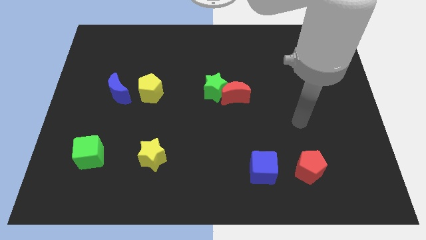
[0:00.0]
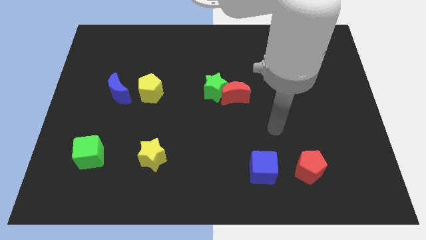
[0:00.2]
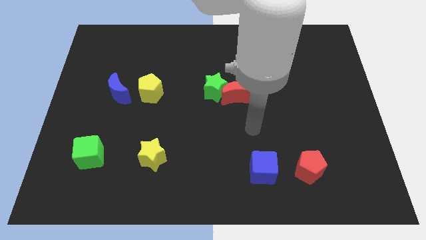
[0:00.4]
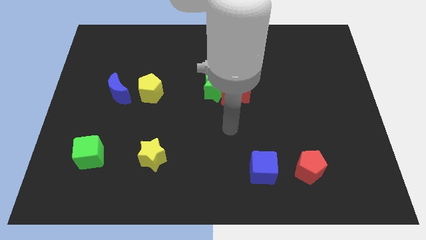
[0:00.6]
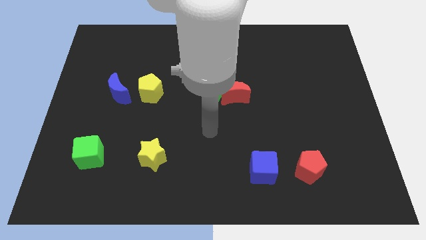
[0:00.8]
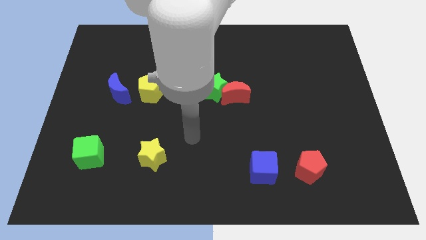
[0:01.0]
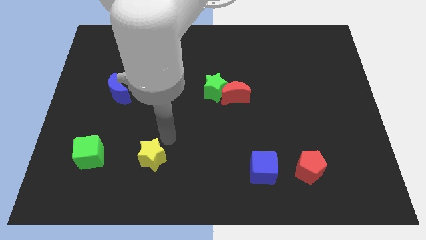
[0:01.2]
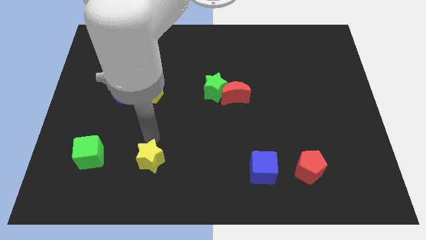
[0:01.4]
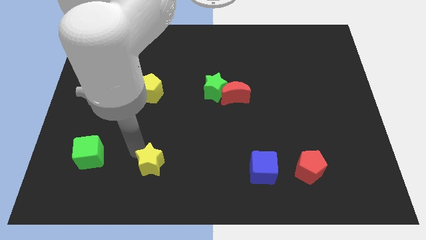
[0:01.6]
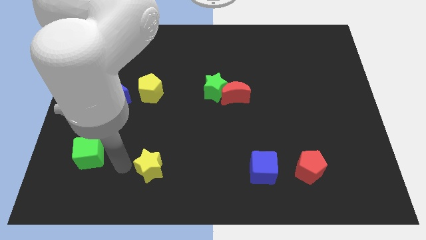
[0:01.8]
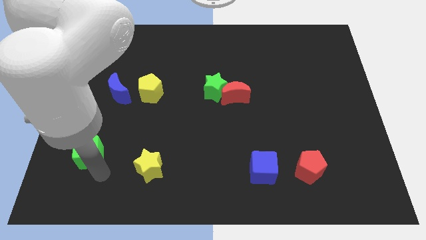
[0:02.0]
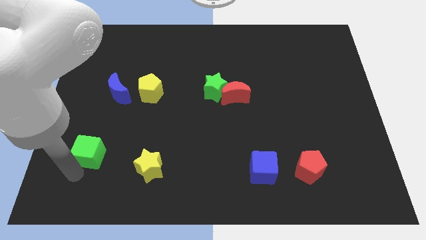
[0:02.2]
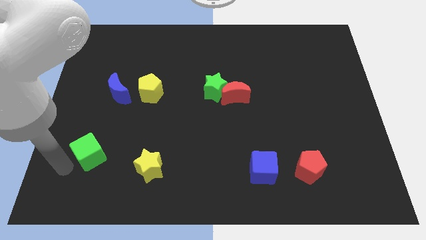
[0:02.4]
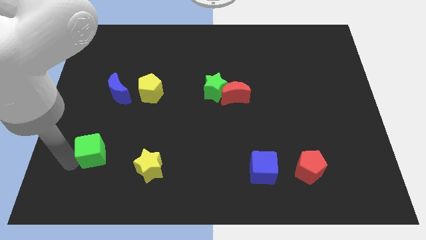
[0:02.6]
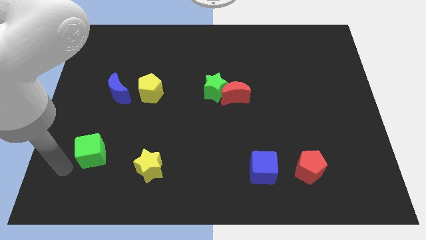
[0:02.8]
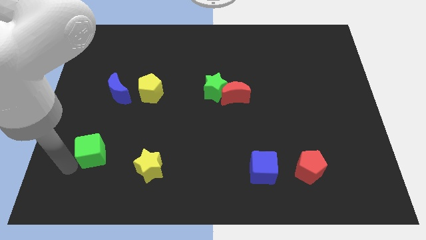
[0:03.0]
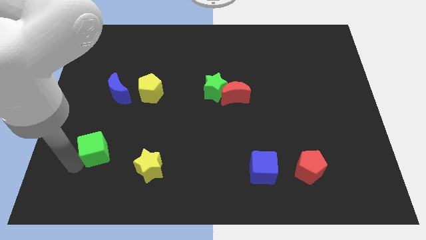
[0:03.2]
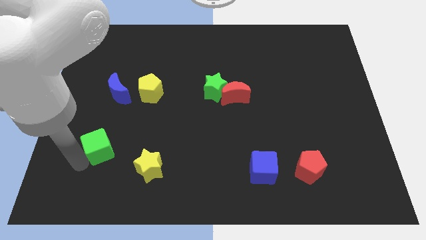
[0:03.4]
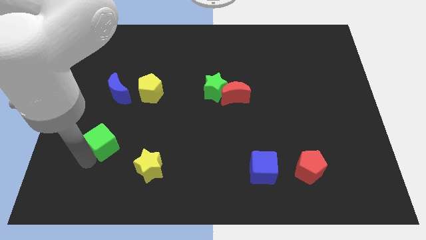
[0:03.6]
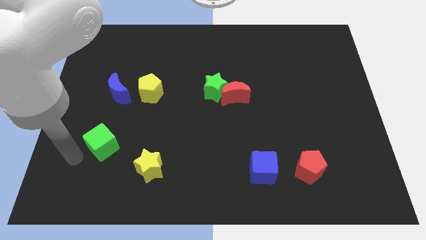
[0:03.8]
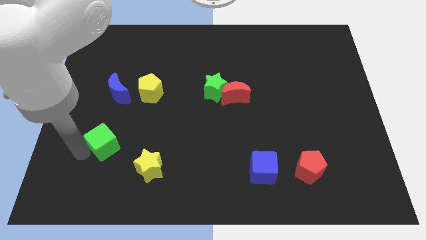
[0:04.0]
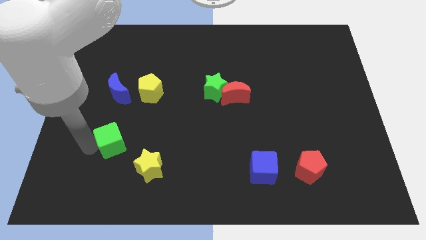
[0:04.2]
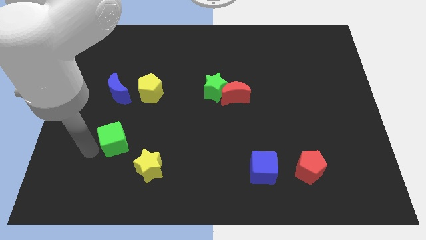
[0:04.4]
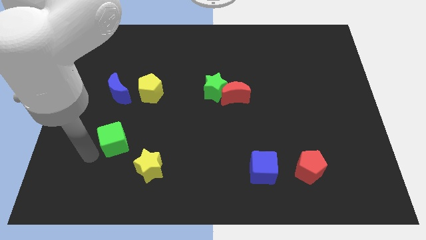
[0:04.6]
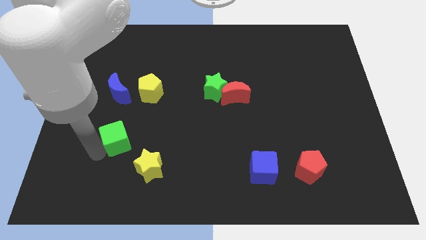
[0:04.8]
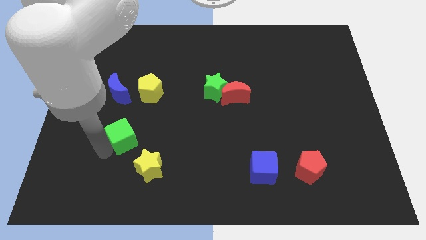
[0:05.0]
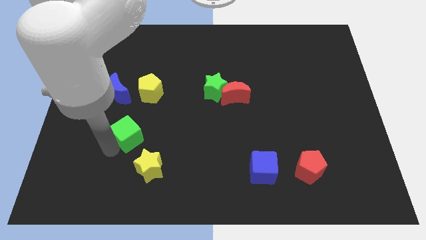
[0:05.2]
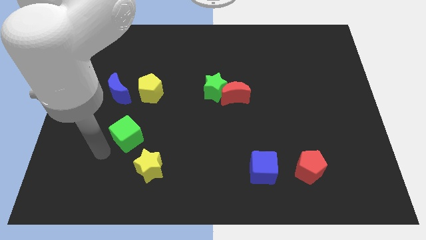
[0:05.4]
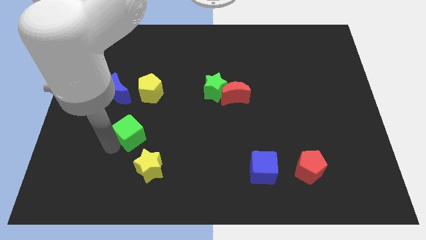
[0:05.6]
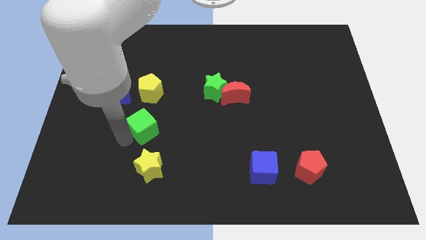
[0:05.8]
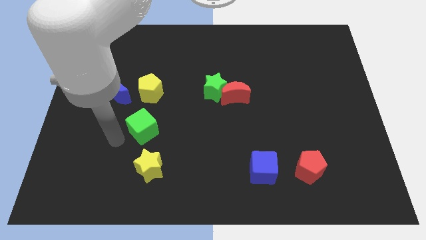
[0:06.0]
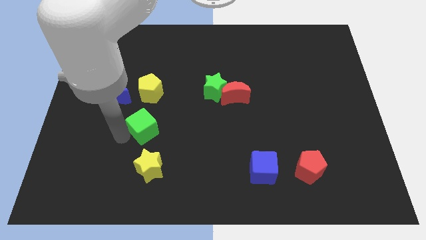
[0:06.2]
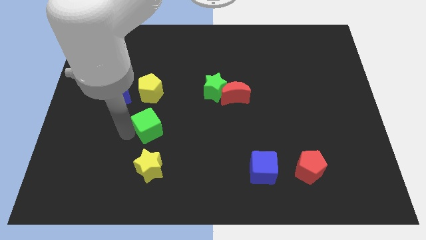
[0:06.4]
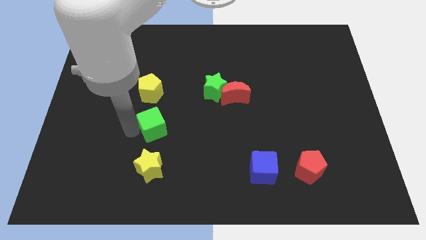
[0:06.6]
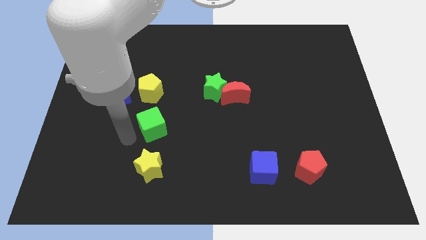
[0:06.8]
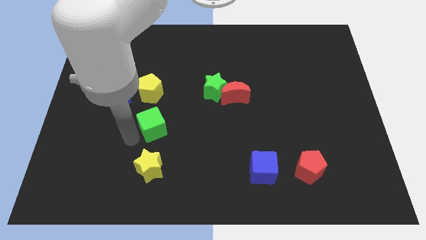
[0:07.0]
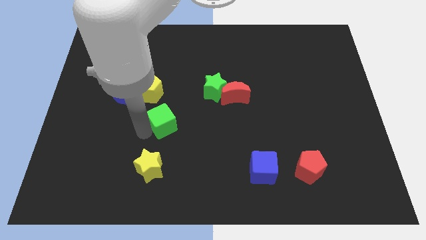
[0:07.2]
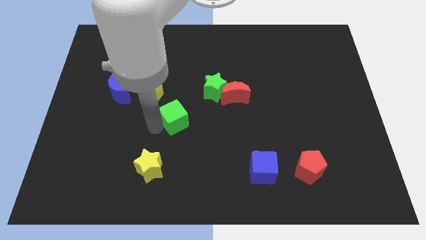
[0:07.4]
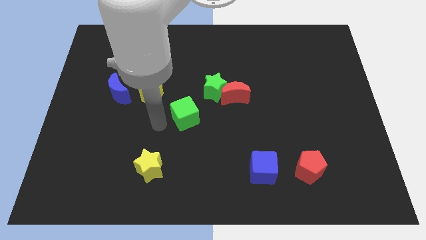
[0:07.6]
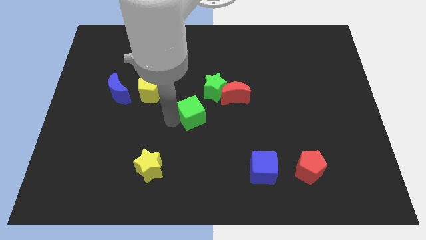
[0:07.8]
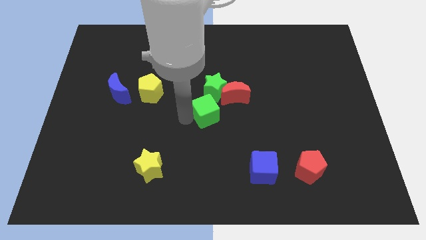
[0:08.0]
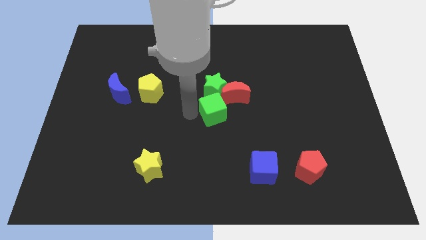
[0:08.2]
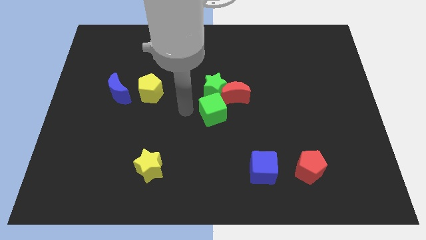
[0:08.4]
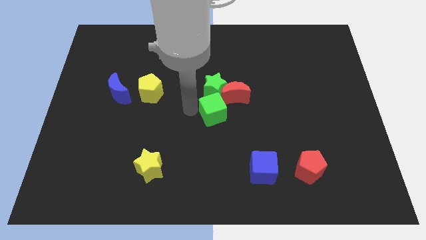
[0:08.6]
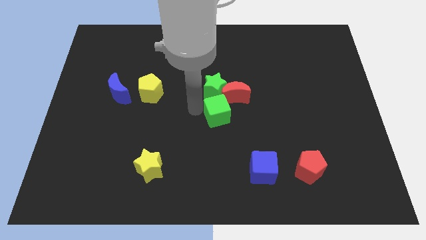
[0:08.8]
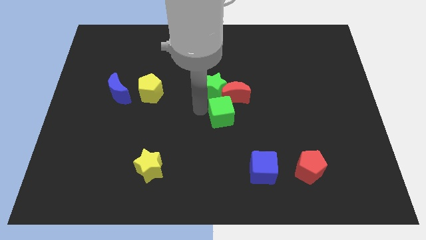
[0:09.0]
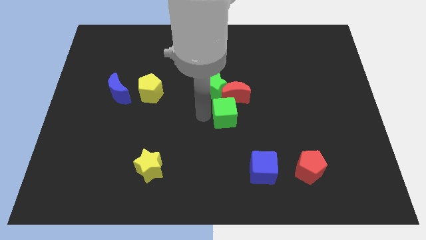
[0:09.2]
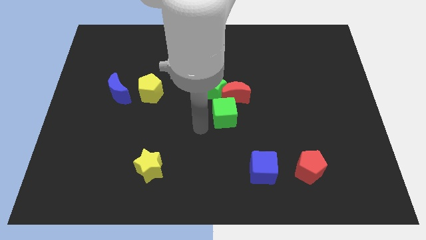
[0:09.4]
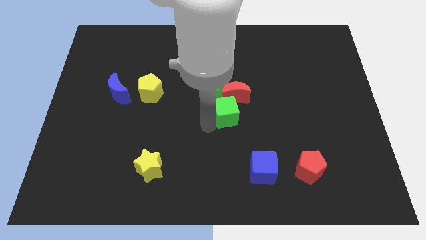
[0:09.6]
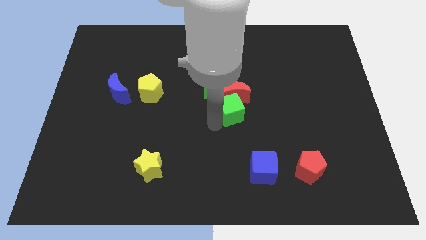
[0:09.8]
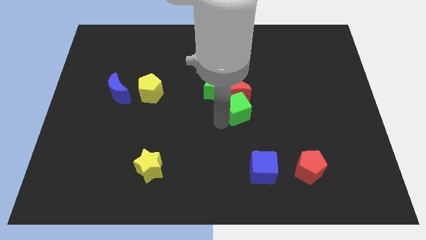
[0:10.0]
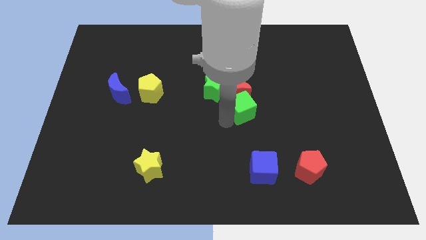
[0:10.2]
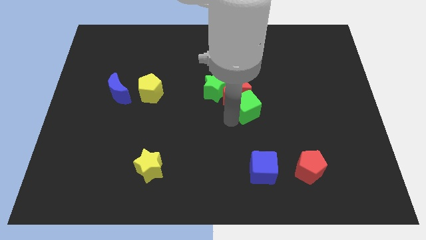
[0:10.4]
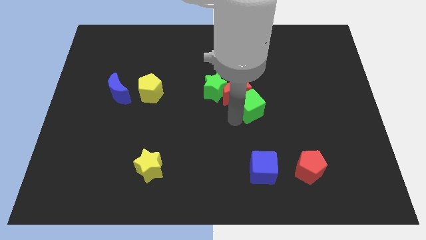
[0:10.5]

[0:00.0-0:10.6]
move the green cube just right of the red moon

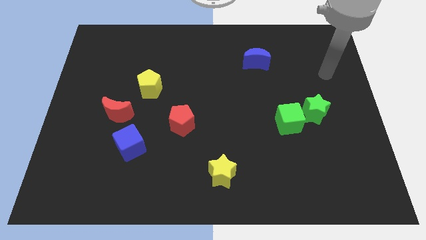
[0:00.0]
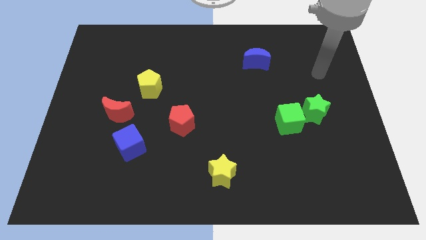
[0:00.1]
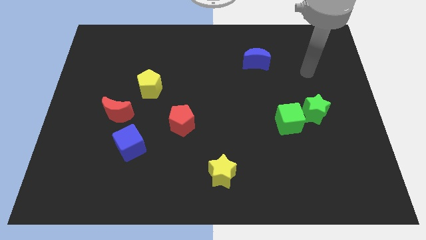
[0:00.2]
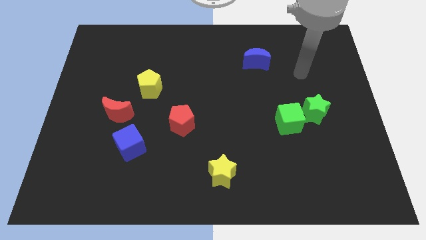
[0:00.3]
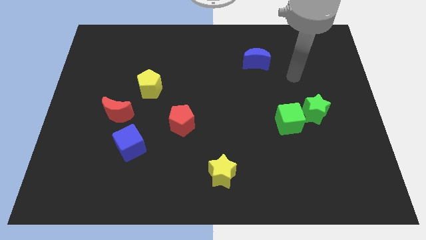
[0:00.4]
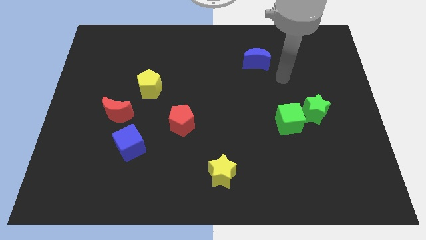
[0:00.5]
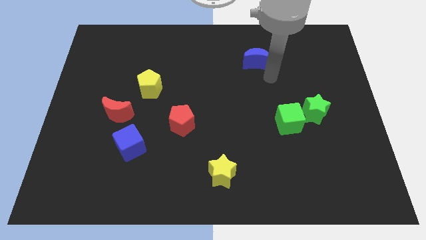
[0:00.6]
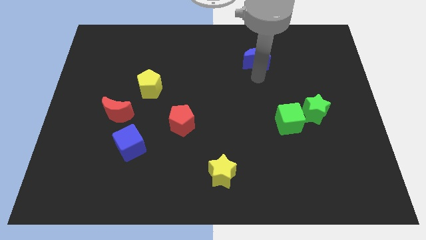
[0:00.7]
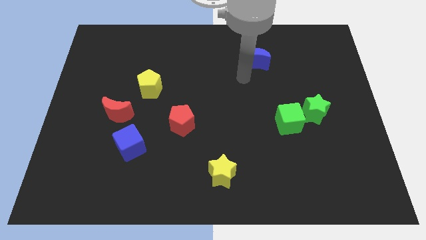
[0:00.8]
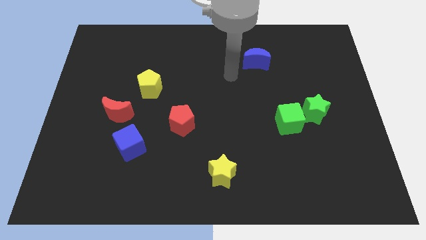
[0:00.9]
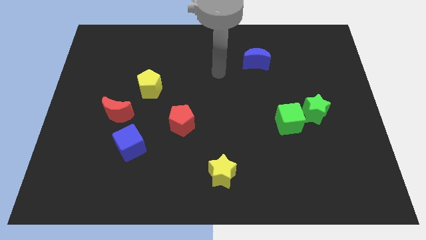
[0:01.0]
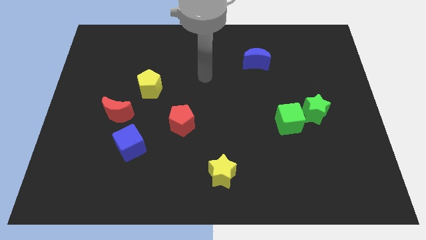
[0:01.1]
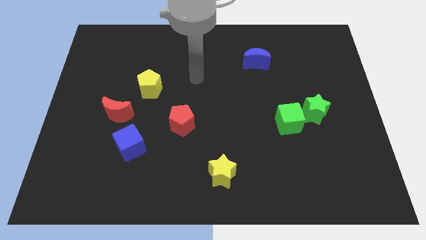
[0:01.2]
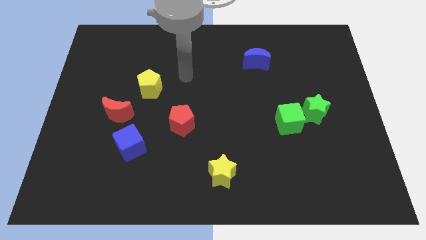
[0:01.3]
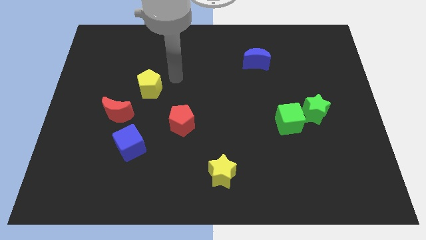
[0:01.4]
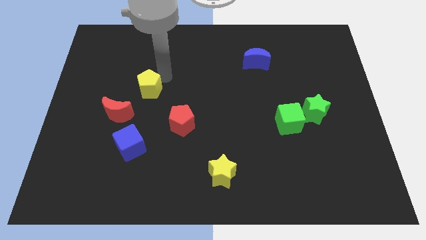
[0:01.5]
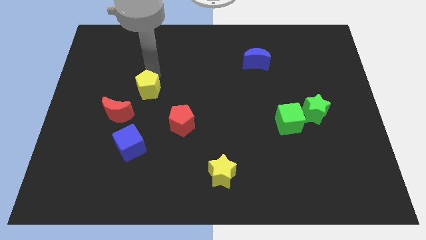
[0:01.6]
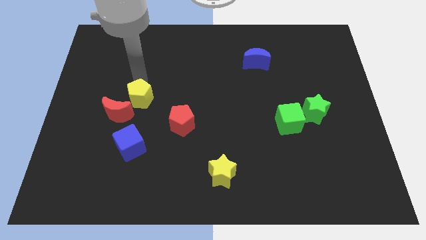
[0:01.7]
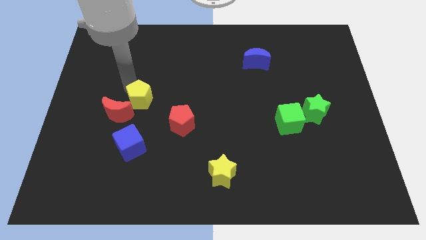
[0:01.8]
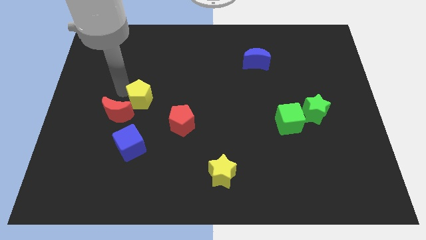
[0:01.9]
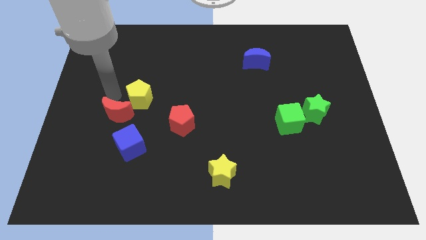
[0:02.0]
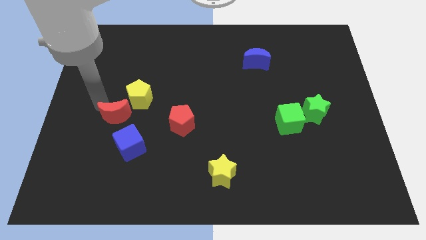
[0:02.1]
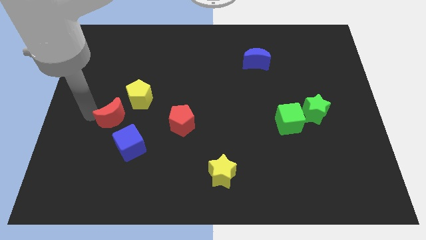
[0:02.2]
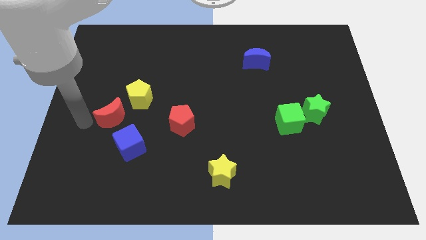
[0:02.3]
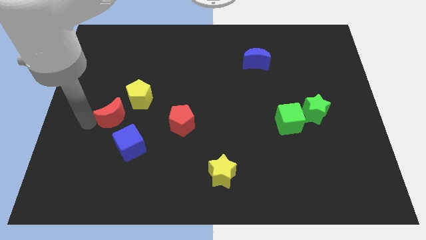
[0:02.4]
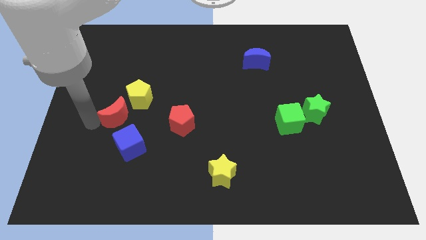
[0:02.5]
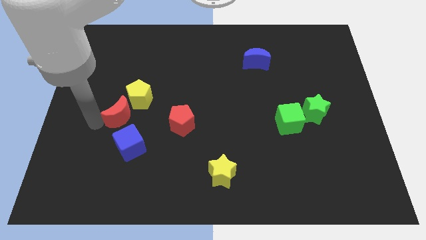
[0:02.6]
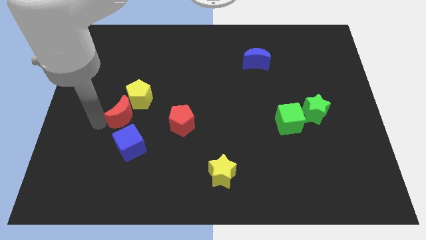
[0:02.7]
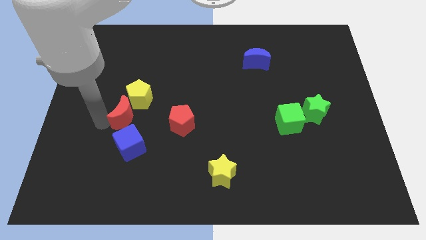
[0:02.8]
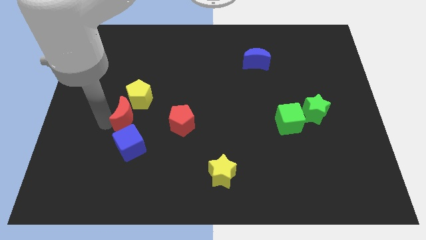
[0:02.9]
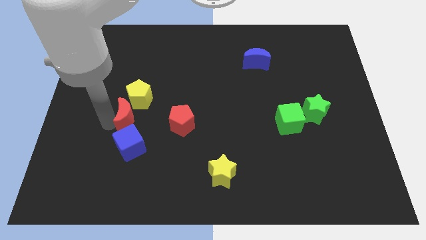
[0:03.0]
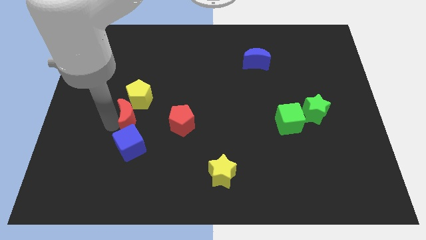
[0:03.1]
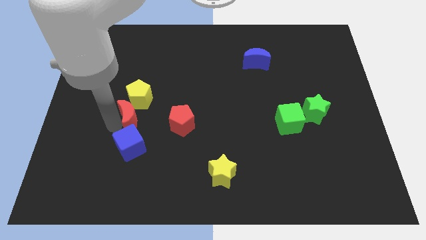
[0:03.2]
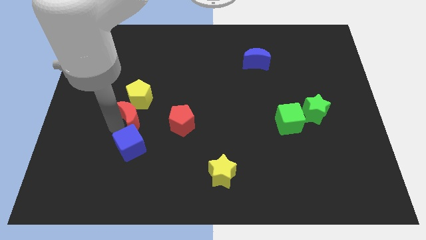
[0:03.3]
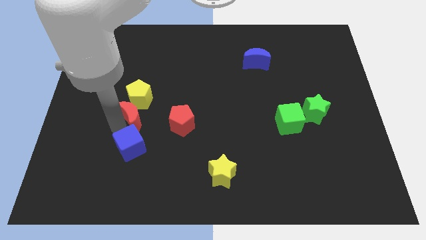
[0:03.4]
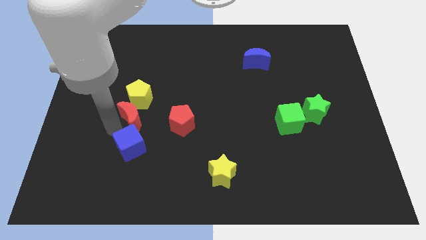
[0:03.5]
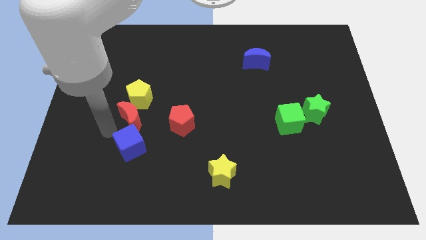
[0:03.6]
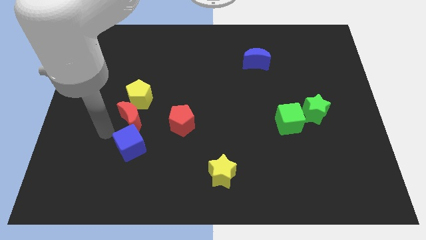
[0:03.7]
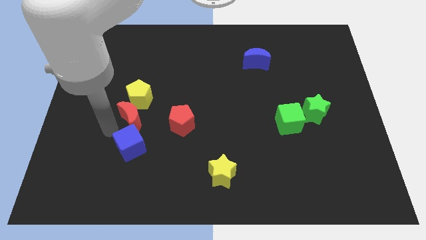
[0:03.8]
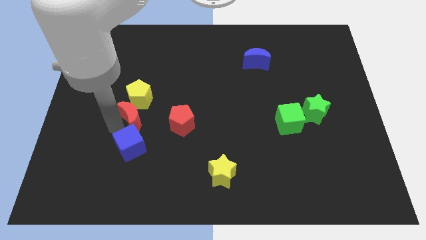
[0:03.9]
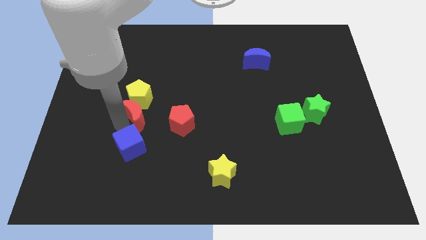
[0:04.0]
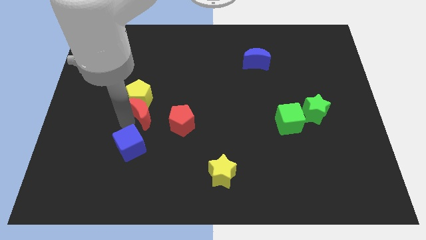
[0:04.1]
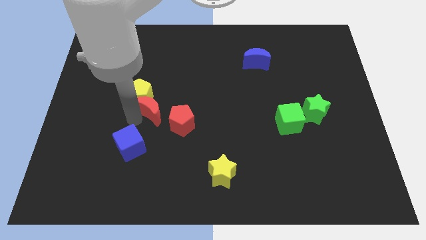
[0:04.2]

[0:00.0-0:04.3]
move the red moon to the top left side of the red pentagon
